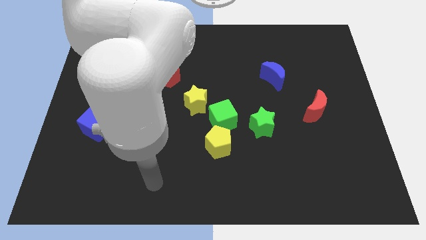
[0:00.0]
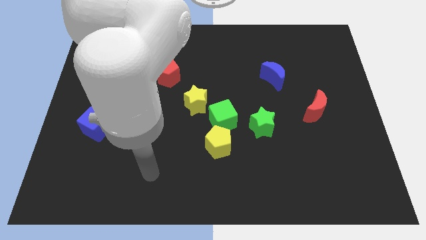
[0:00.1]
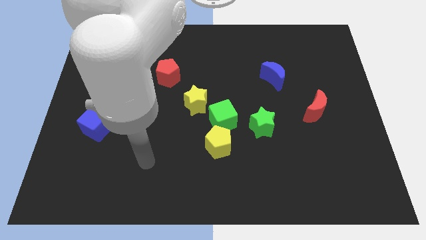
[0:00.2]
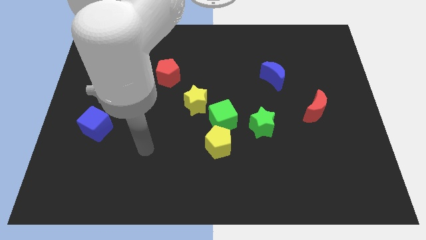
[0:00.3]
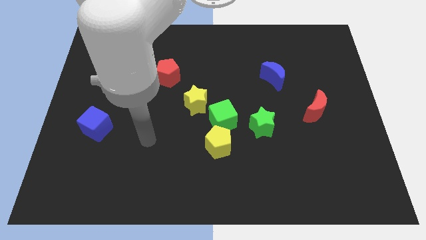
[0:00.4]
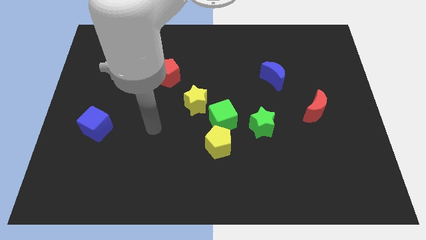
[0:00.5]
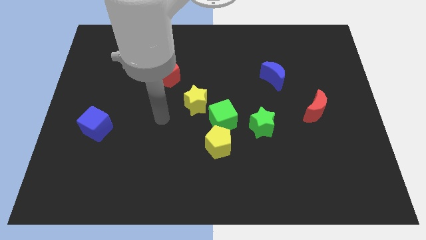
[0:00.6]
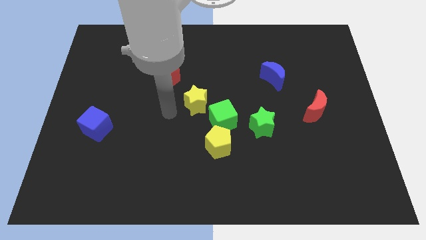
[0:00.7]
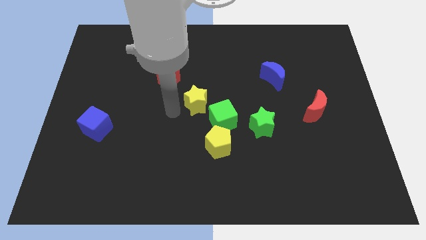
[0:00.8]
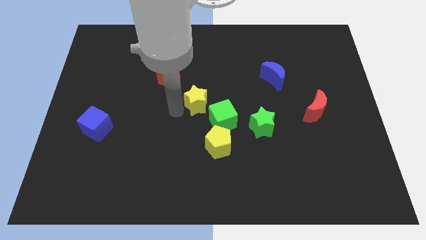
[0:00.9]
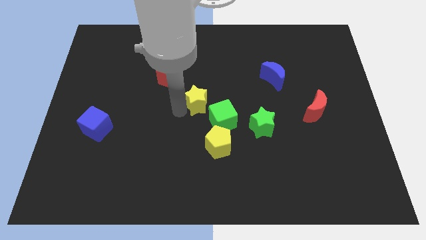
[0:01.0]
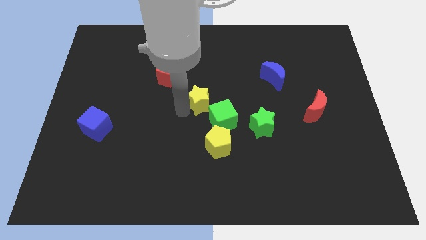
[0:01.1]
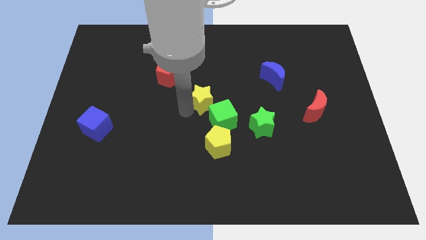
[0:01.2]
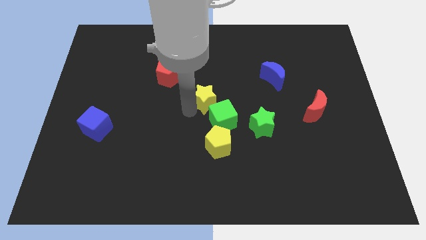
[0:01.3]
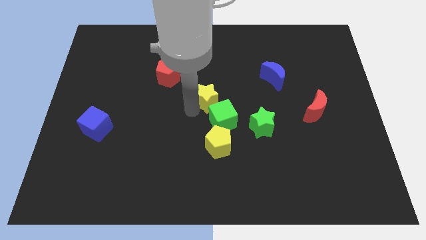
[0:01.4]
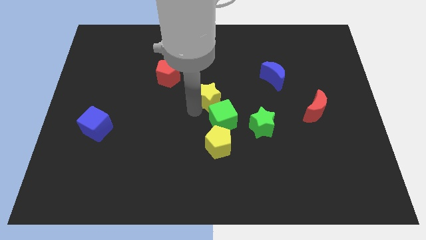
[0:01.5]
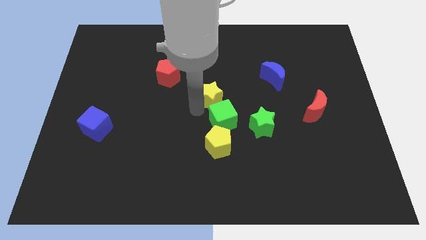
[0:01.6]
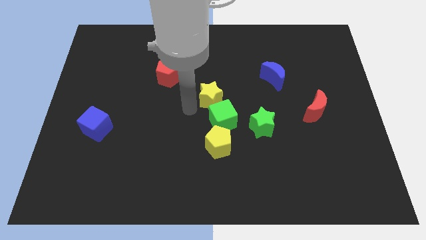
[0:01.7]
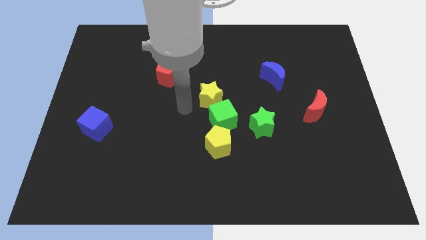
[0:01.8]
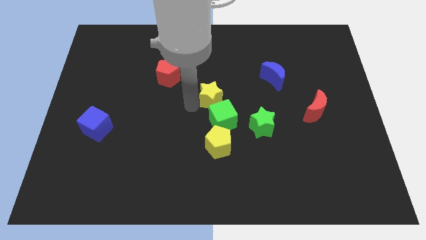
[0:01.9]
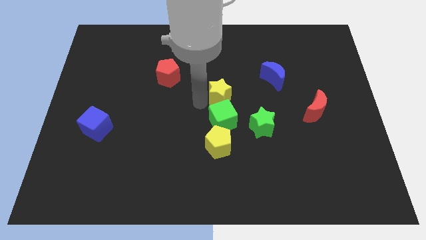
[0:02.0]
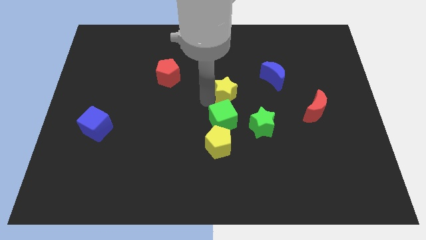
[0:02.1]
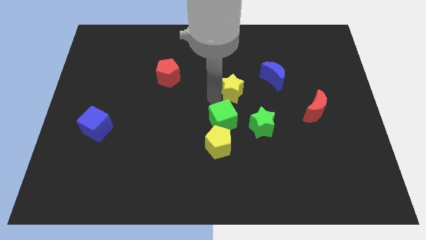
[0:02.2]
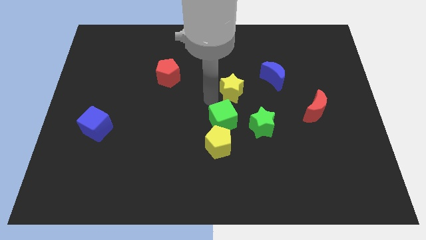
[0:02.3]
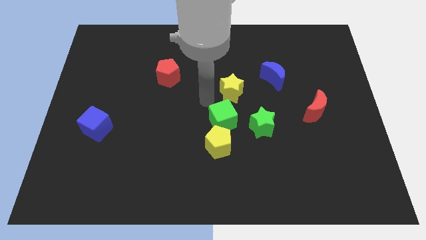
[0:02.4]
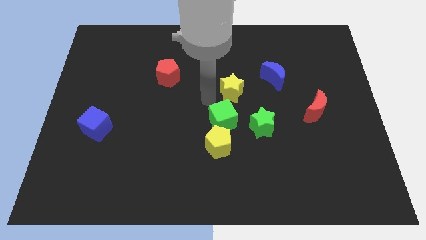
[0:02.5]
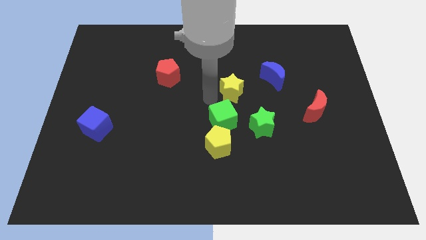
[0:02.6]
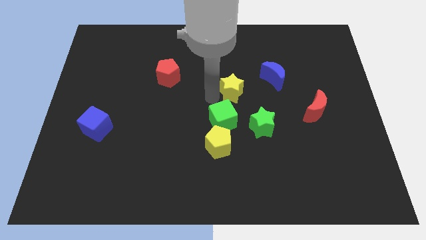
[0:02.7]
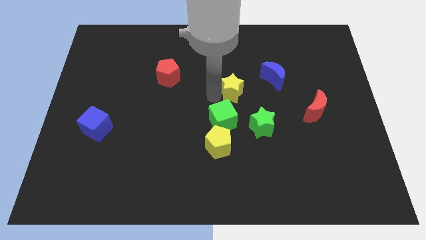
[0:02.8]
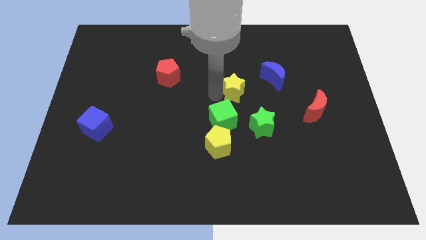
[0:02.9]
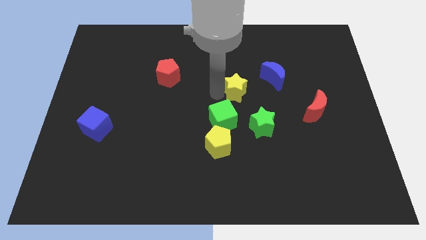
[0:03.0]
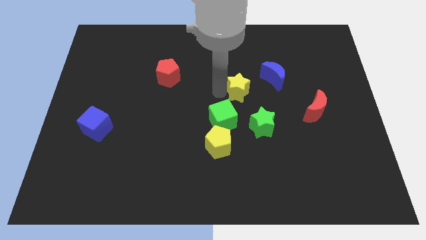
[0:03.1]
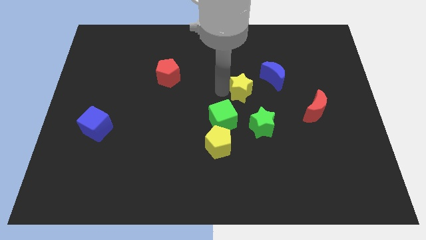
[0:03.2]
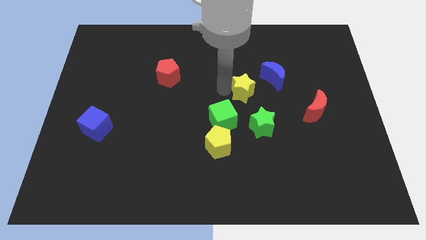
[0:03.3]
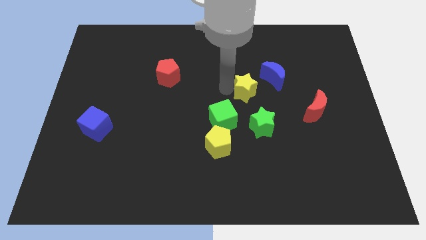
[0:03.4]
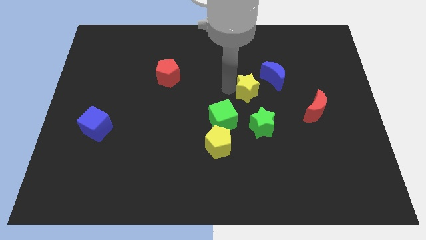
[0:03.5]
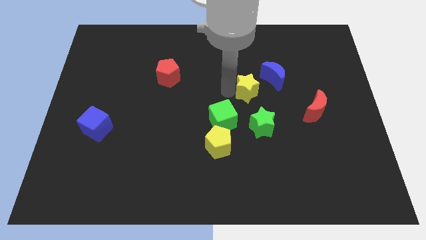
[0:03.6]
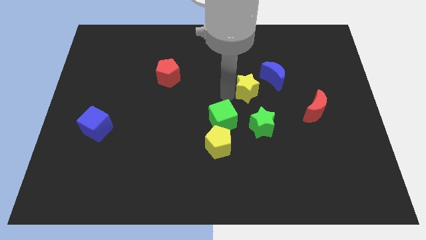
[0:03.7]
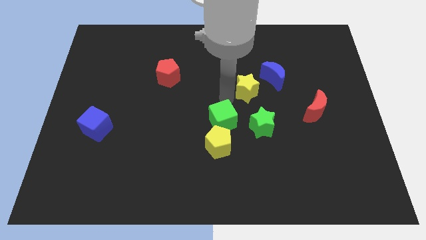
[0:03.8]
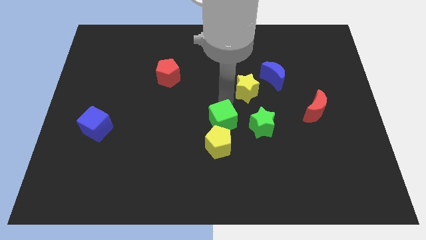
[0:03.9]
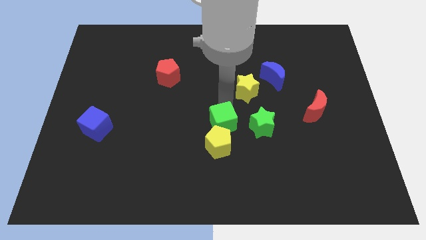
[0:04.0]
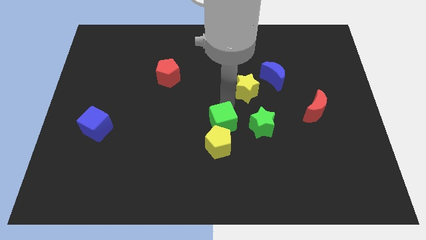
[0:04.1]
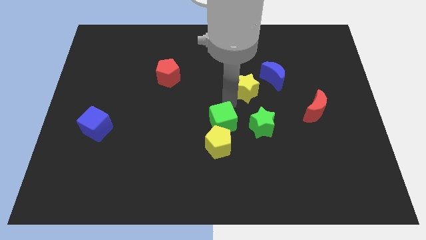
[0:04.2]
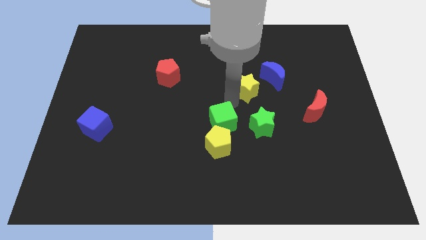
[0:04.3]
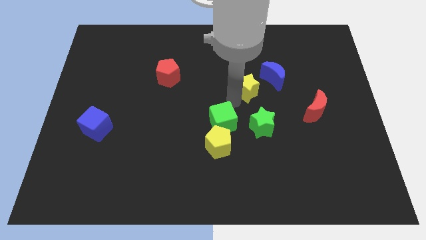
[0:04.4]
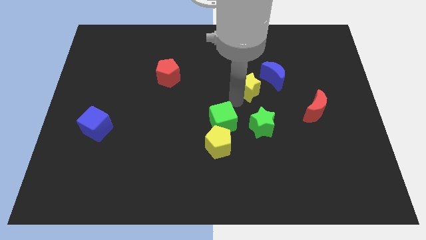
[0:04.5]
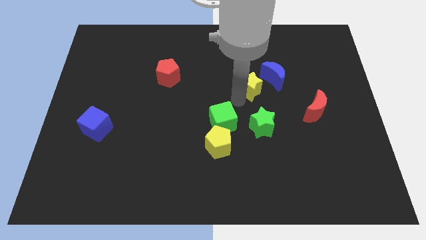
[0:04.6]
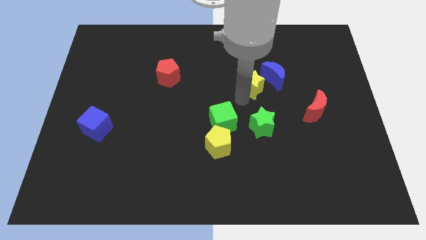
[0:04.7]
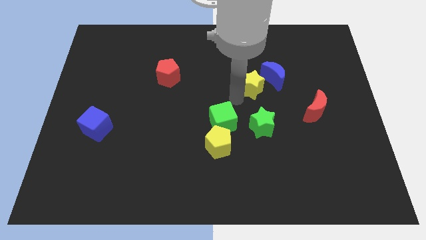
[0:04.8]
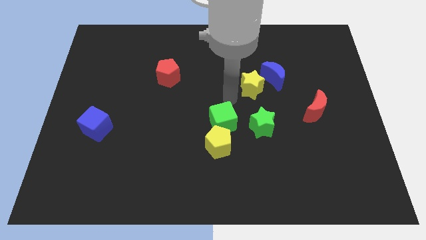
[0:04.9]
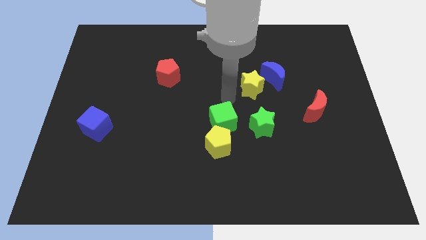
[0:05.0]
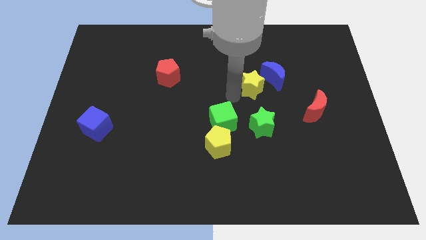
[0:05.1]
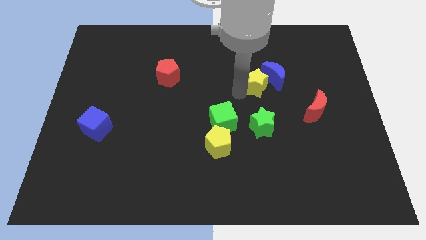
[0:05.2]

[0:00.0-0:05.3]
move the yellow star to the blue moon

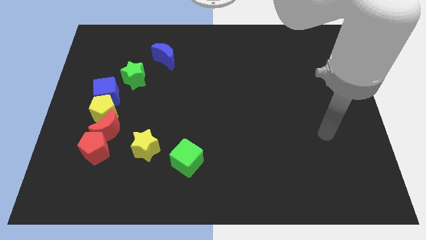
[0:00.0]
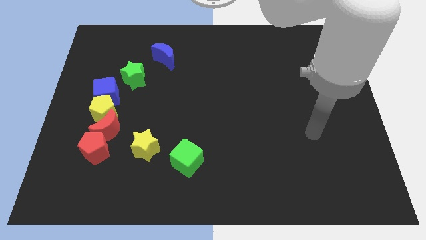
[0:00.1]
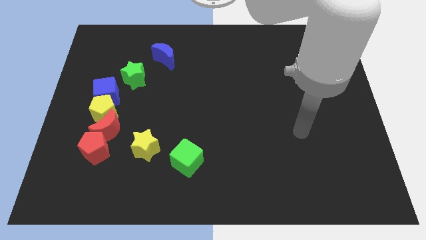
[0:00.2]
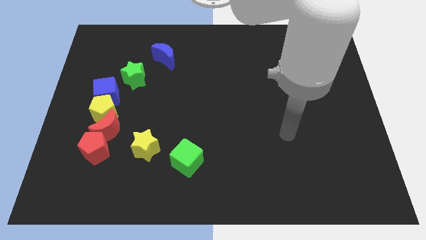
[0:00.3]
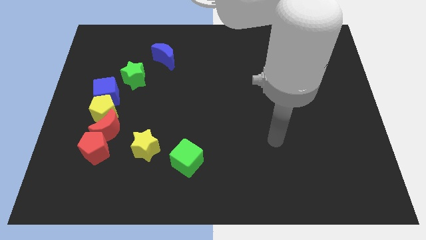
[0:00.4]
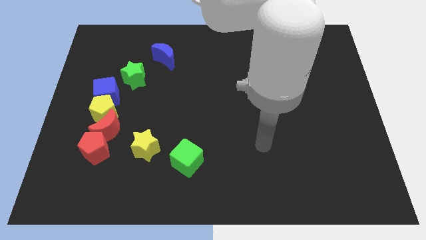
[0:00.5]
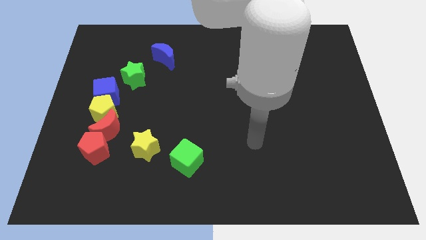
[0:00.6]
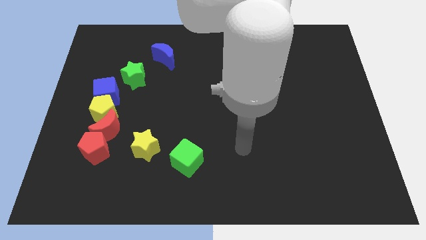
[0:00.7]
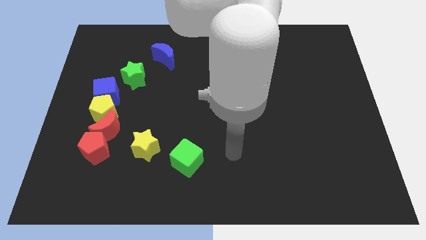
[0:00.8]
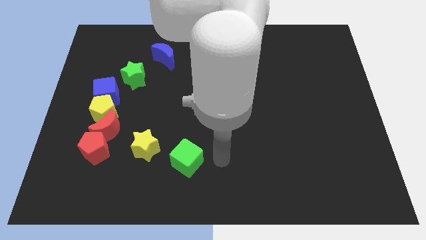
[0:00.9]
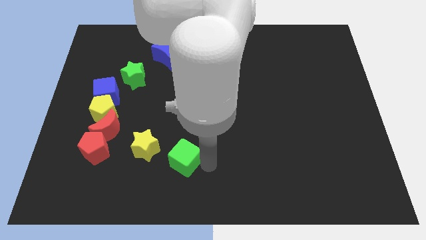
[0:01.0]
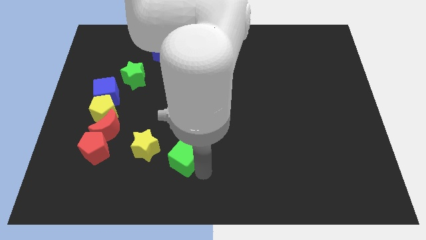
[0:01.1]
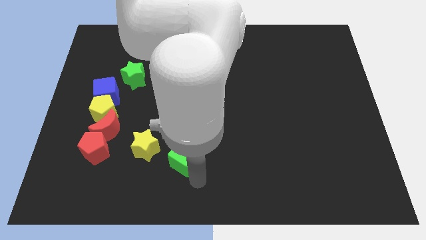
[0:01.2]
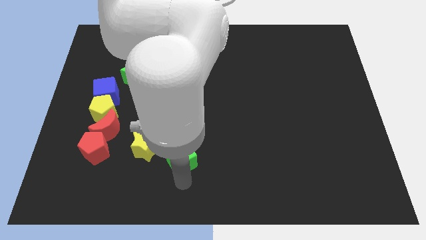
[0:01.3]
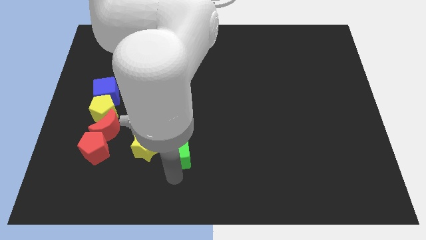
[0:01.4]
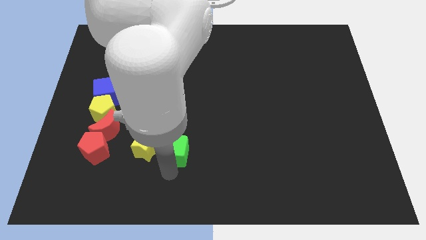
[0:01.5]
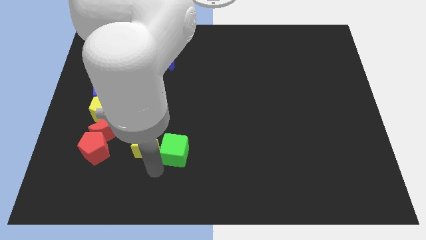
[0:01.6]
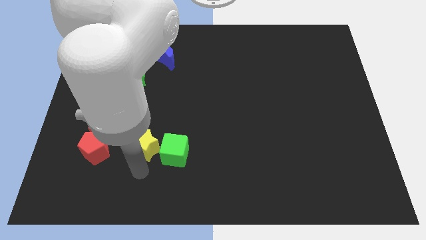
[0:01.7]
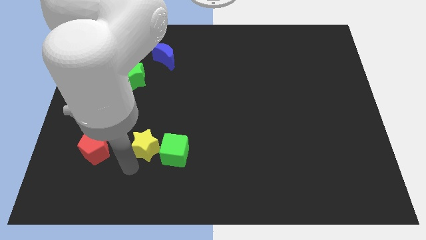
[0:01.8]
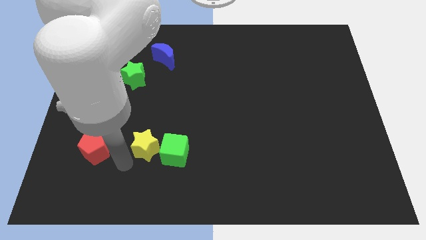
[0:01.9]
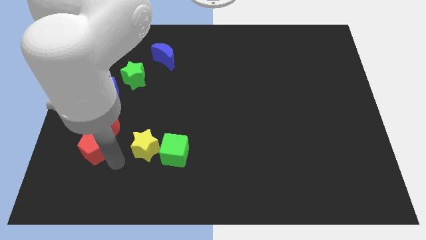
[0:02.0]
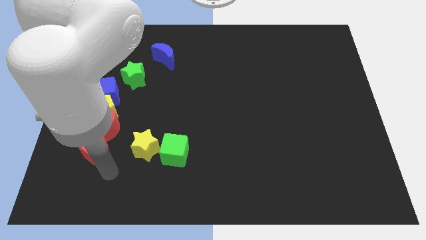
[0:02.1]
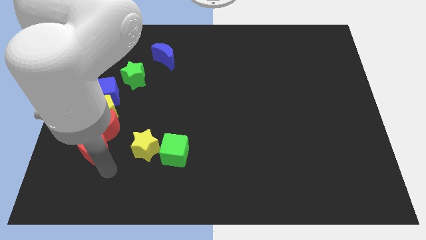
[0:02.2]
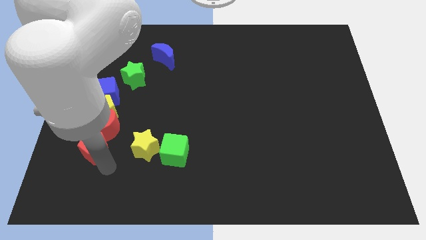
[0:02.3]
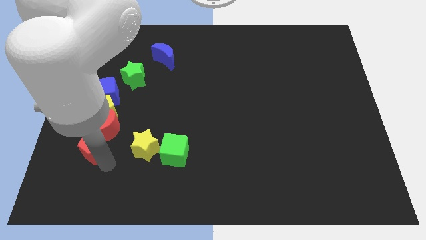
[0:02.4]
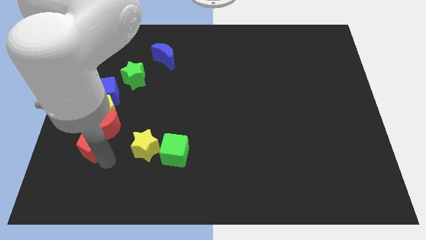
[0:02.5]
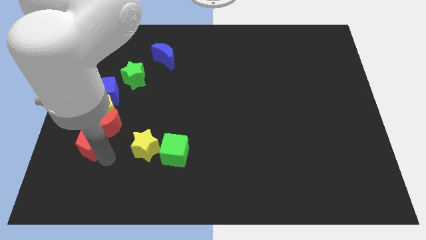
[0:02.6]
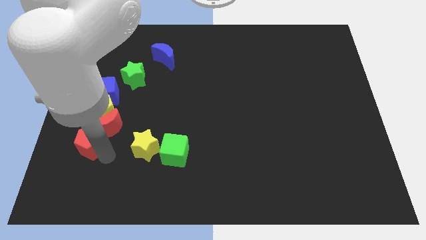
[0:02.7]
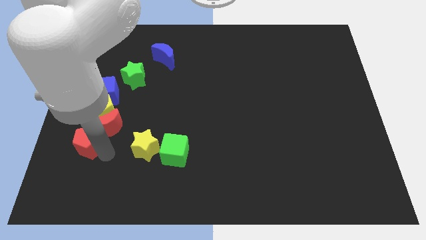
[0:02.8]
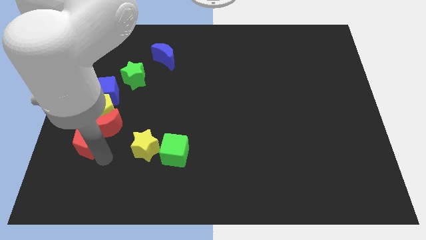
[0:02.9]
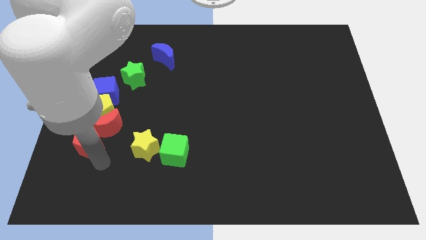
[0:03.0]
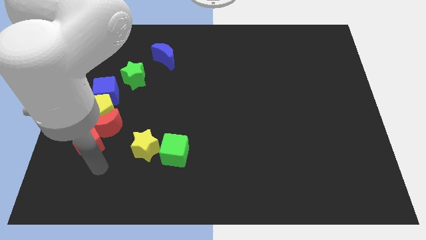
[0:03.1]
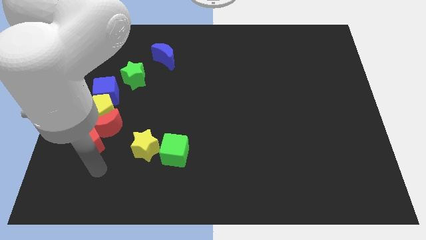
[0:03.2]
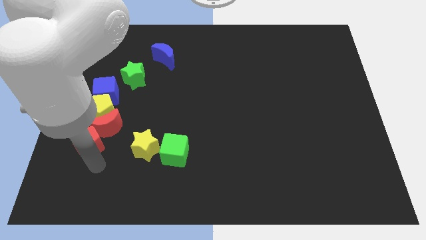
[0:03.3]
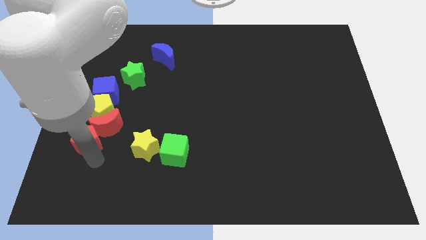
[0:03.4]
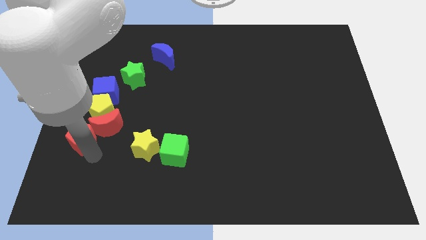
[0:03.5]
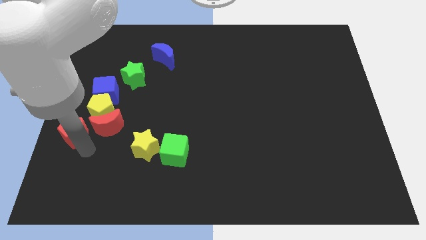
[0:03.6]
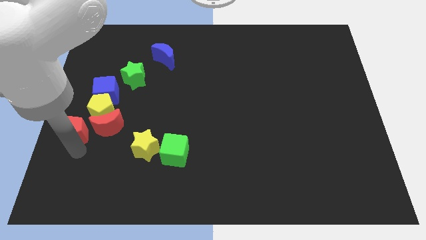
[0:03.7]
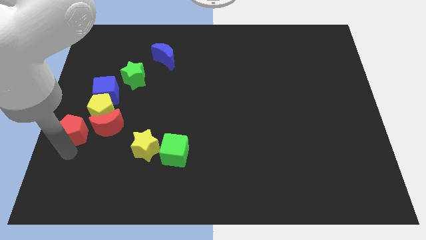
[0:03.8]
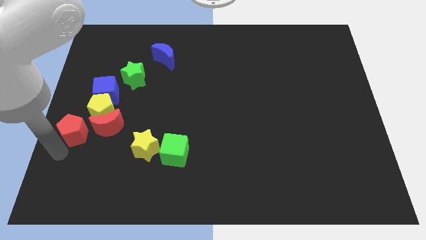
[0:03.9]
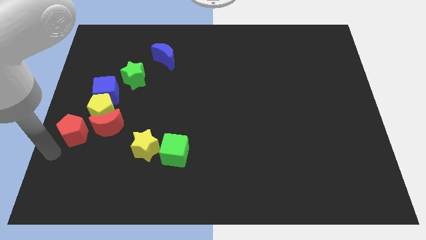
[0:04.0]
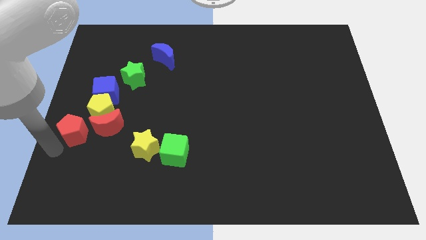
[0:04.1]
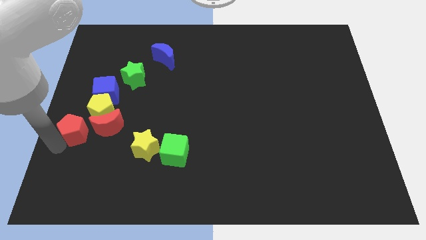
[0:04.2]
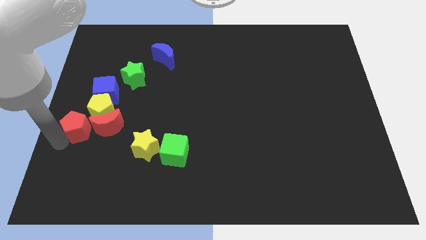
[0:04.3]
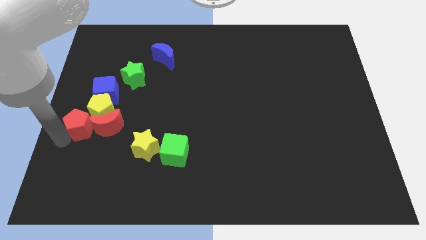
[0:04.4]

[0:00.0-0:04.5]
push the red pentagon close to the yellow pentagon
